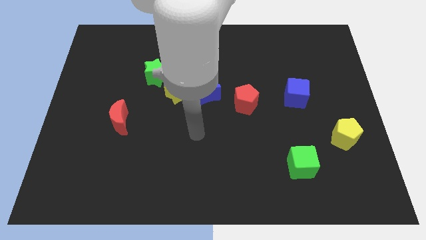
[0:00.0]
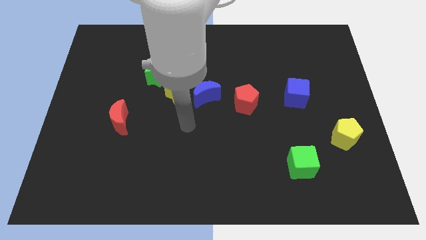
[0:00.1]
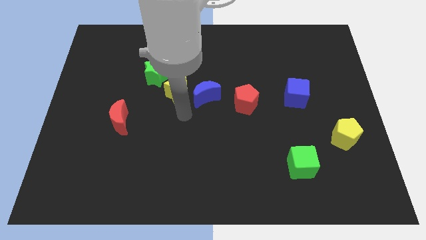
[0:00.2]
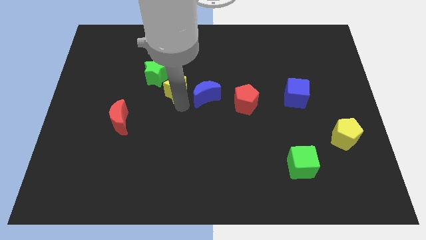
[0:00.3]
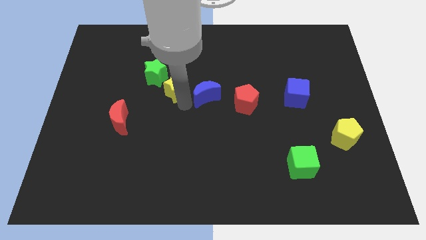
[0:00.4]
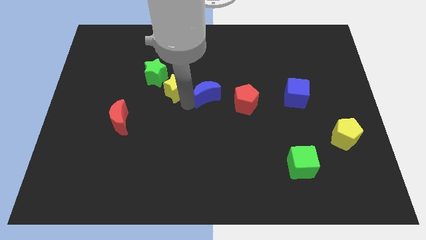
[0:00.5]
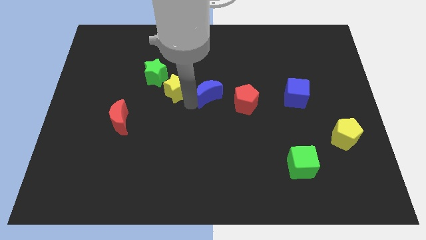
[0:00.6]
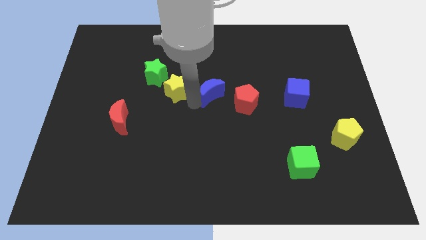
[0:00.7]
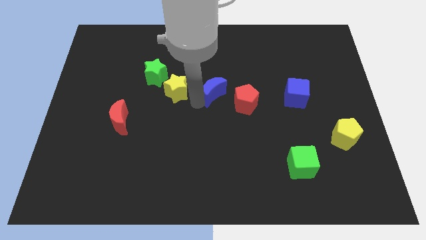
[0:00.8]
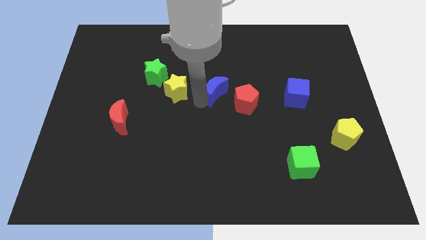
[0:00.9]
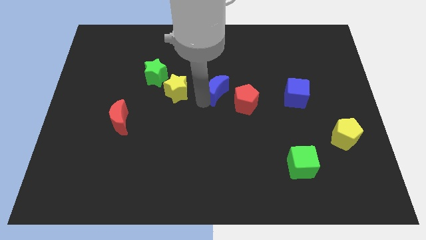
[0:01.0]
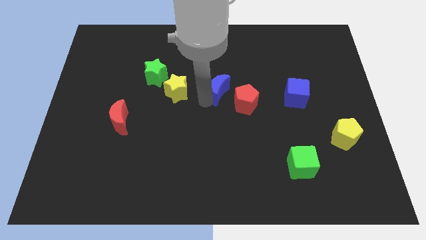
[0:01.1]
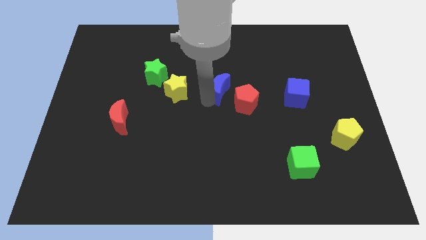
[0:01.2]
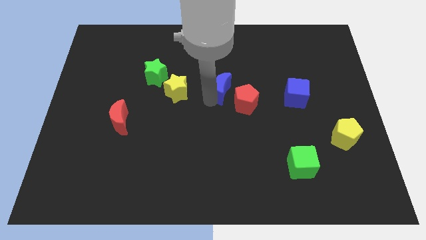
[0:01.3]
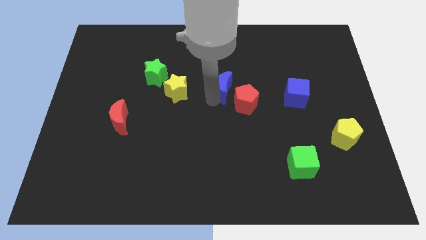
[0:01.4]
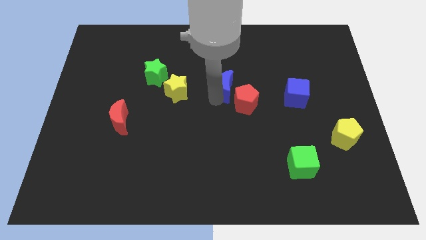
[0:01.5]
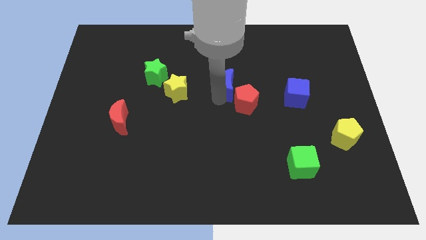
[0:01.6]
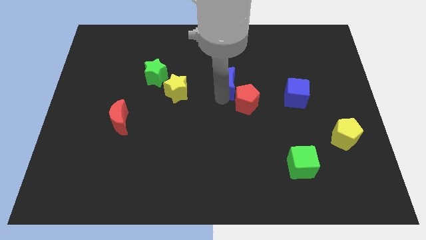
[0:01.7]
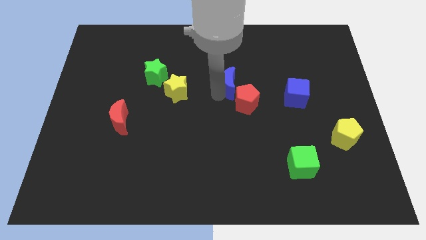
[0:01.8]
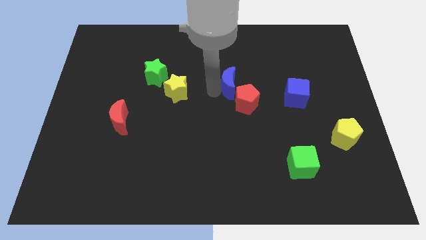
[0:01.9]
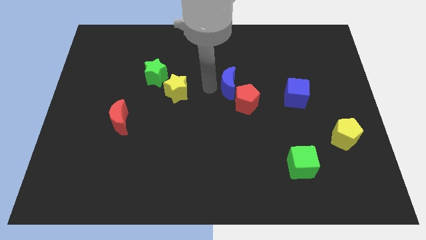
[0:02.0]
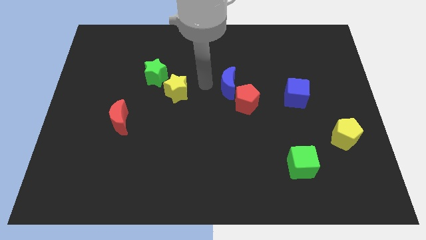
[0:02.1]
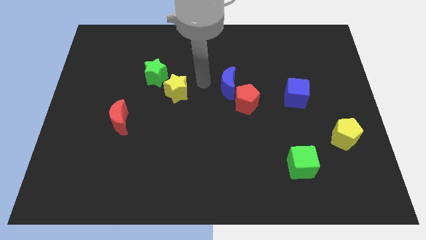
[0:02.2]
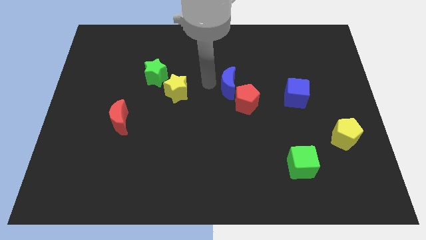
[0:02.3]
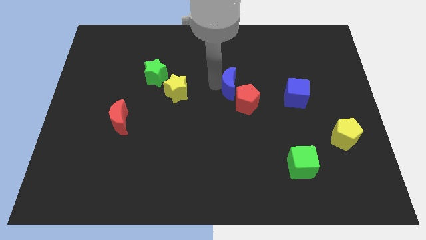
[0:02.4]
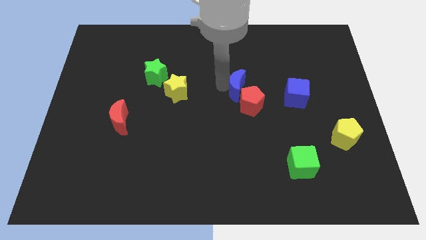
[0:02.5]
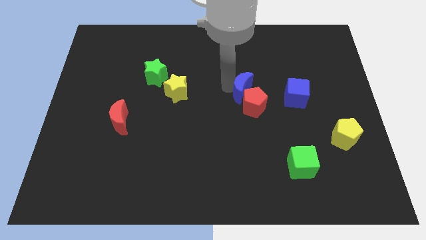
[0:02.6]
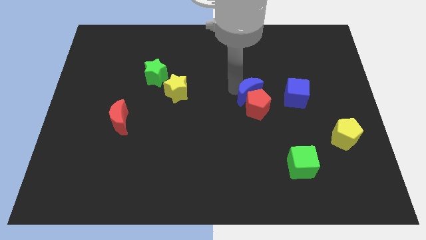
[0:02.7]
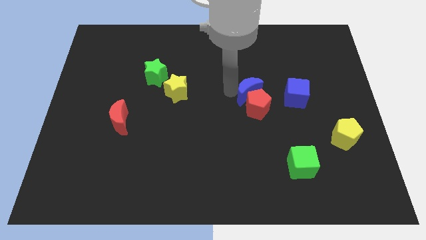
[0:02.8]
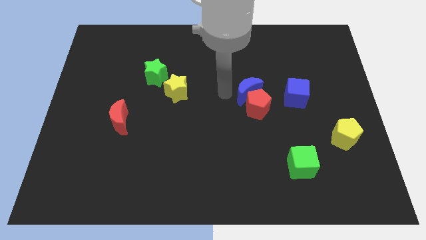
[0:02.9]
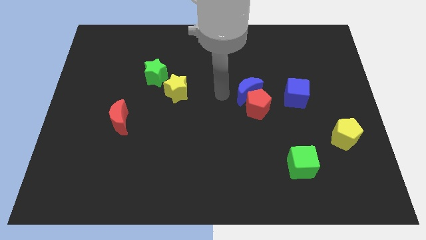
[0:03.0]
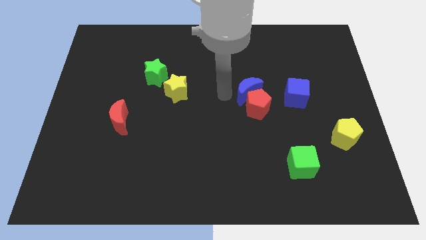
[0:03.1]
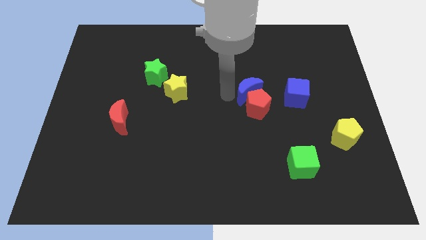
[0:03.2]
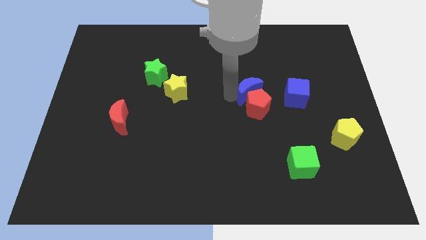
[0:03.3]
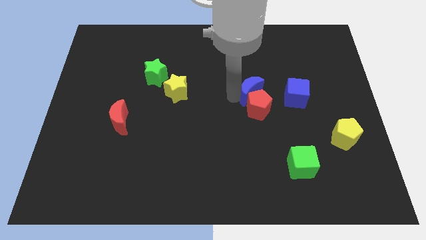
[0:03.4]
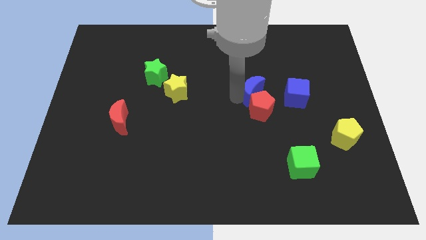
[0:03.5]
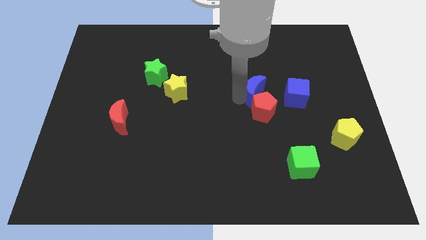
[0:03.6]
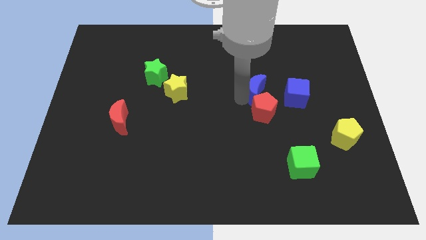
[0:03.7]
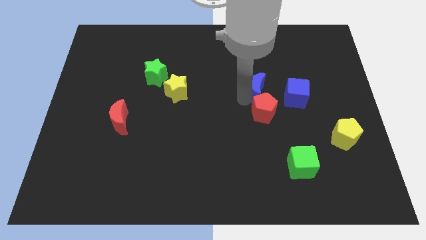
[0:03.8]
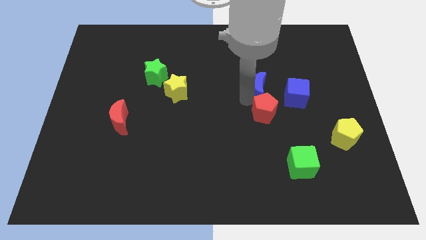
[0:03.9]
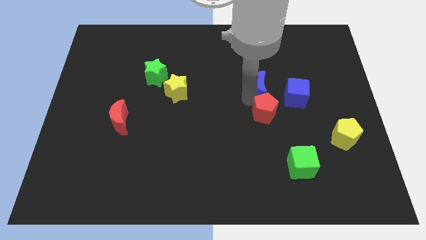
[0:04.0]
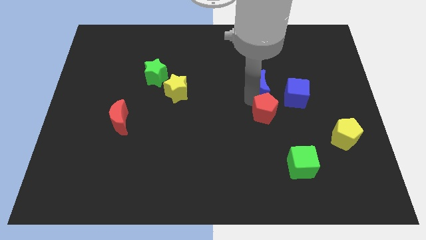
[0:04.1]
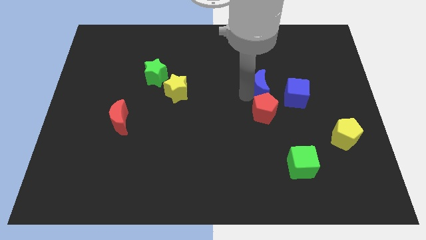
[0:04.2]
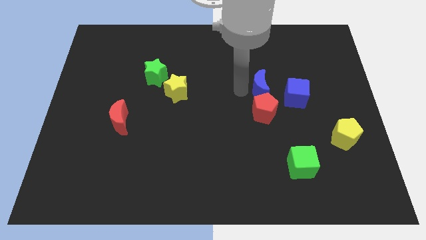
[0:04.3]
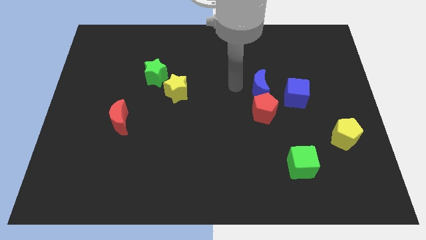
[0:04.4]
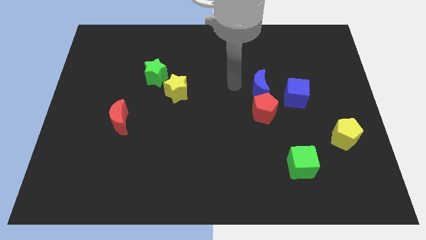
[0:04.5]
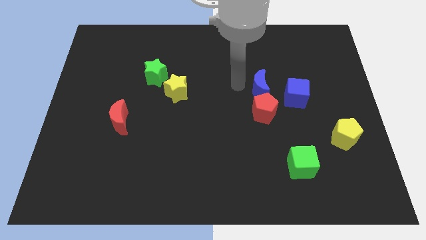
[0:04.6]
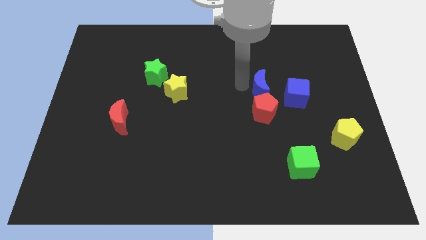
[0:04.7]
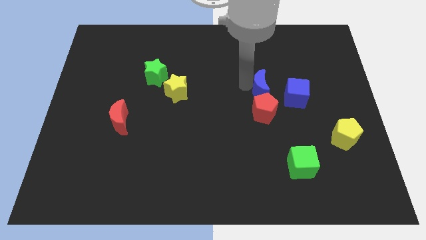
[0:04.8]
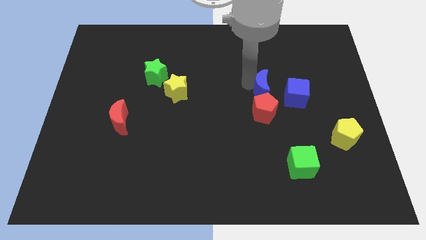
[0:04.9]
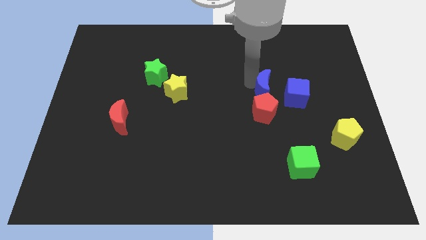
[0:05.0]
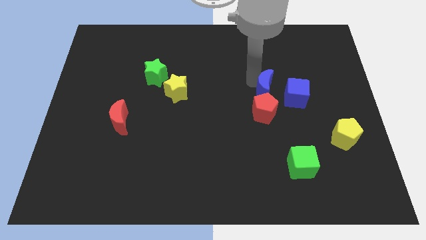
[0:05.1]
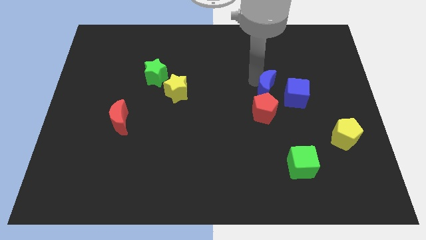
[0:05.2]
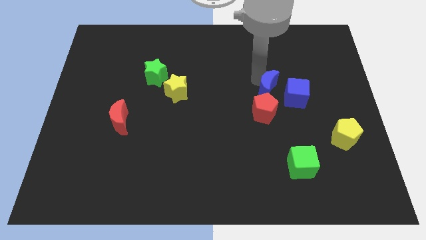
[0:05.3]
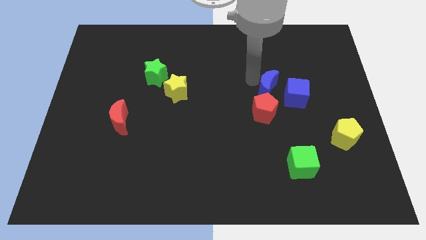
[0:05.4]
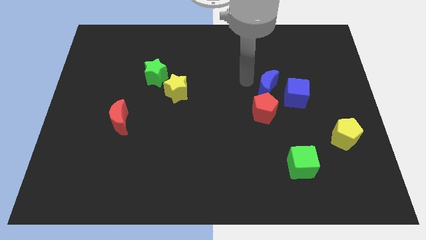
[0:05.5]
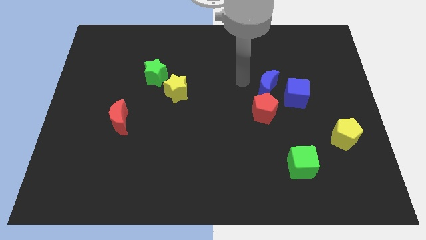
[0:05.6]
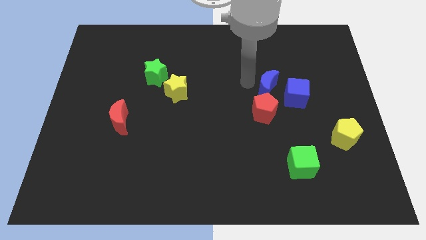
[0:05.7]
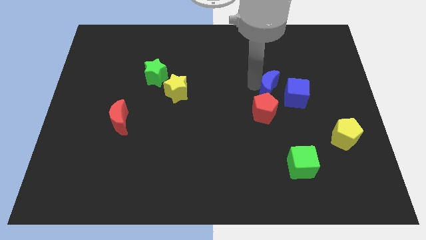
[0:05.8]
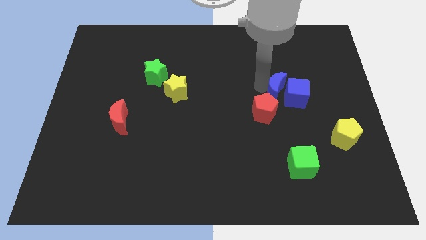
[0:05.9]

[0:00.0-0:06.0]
push the blue moon to the blue cube

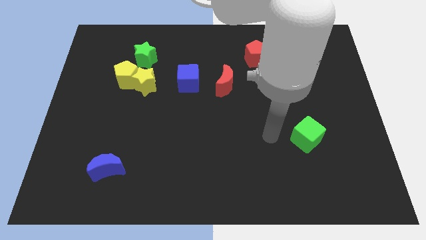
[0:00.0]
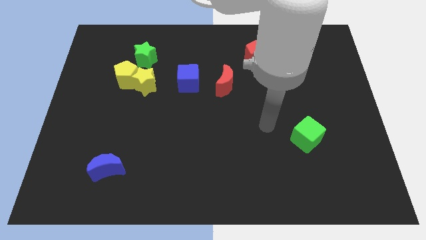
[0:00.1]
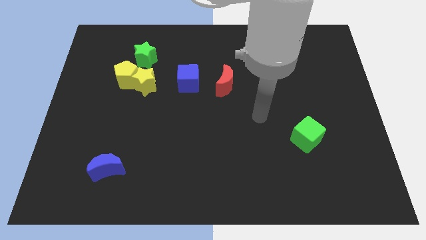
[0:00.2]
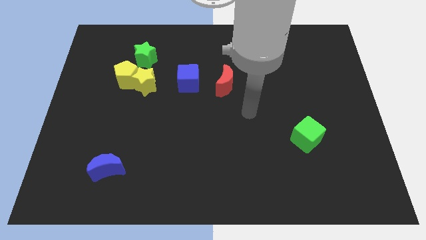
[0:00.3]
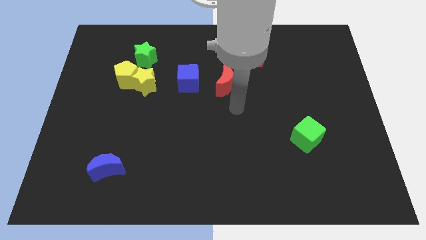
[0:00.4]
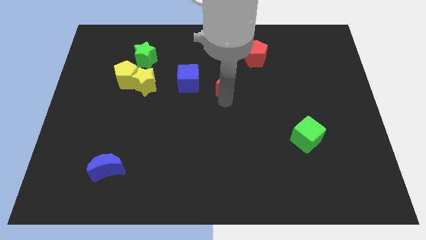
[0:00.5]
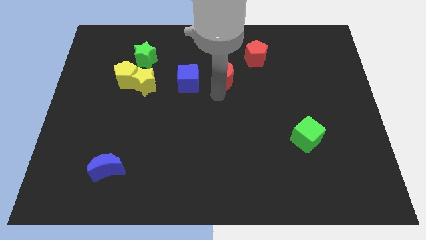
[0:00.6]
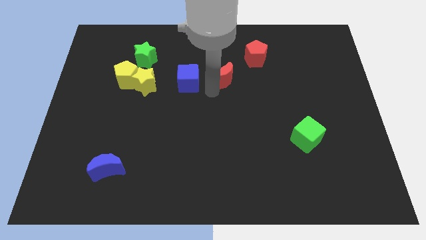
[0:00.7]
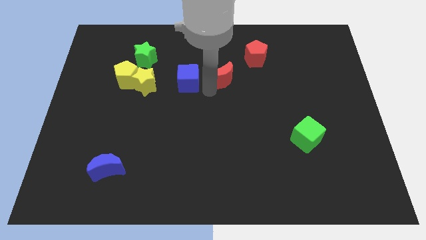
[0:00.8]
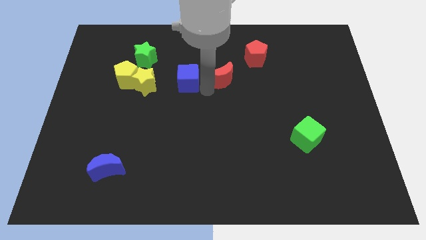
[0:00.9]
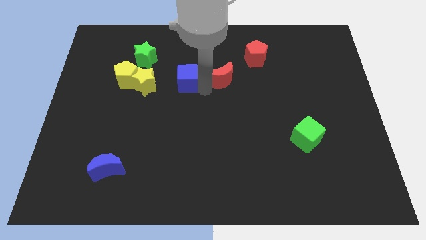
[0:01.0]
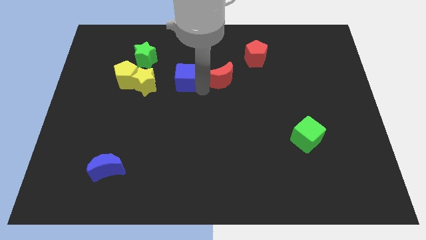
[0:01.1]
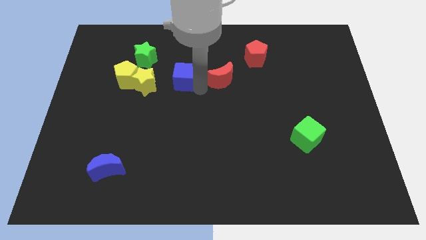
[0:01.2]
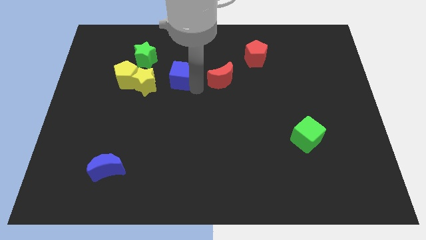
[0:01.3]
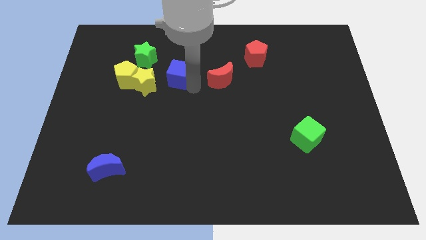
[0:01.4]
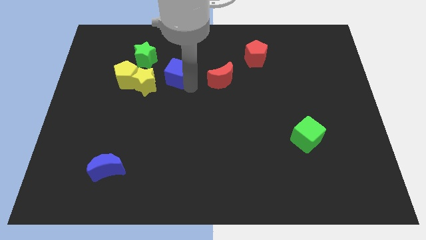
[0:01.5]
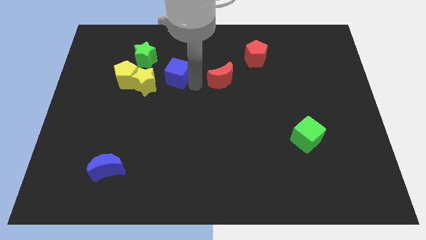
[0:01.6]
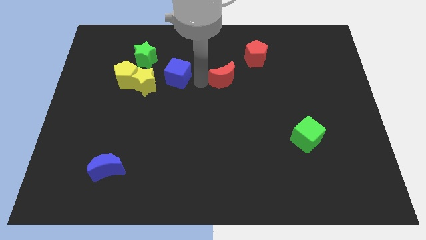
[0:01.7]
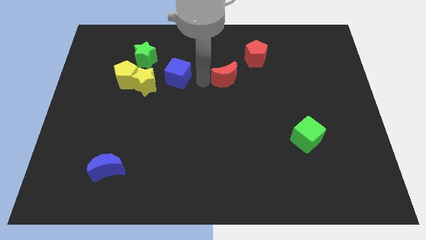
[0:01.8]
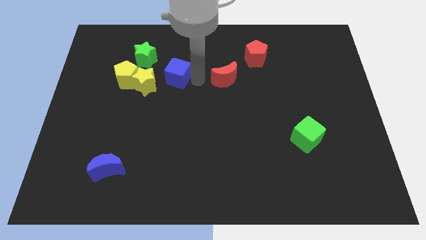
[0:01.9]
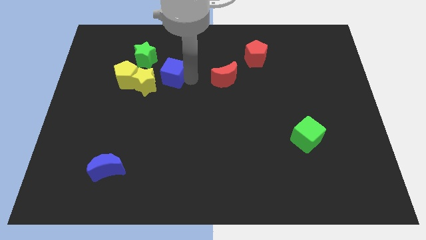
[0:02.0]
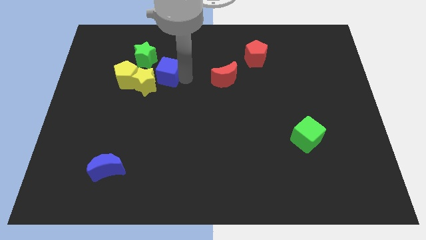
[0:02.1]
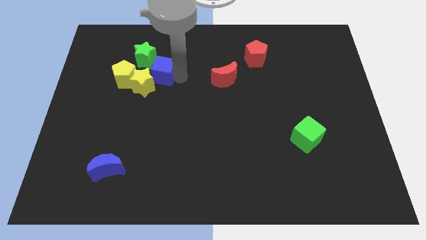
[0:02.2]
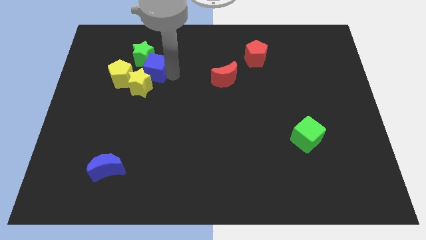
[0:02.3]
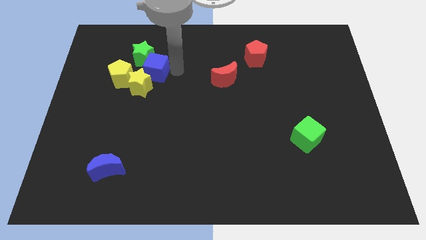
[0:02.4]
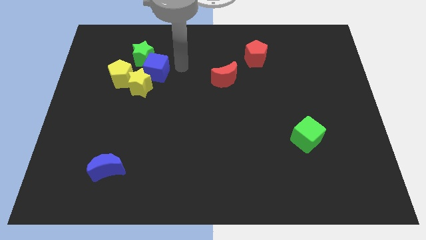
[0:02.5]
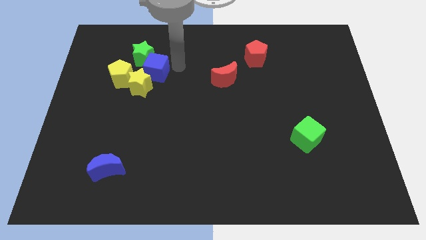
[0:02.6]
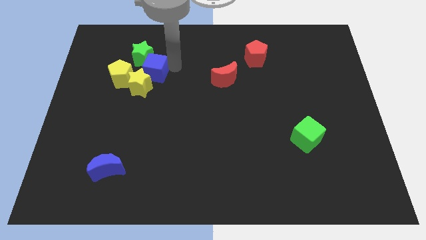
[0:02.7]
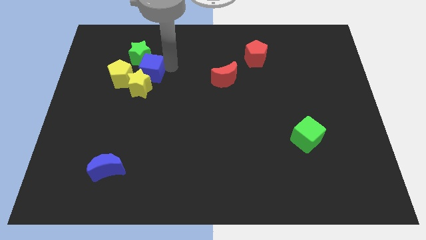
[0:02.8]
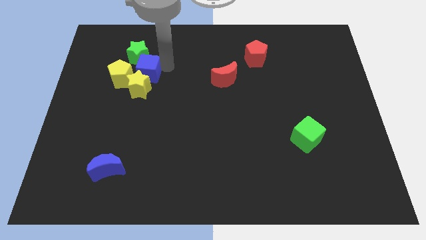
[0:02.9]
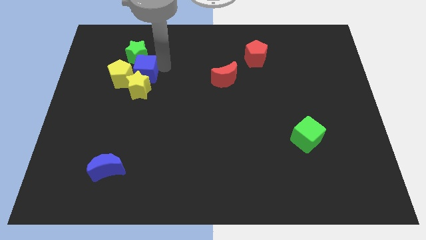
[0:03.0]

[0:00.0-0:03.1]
slide the blue cube towards the yellow pentagon
